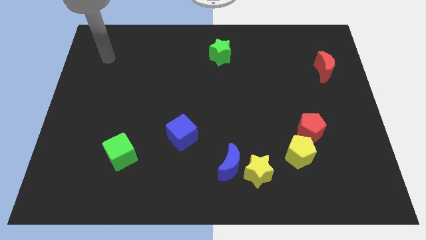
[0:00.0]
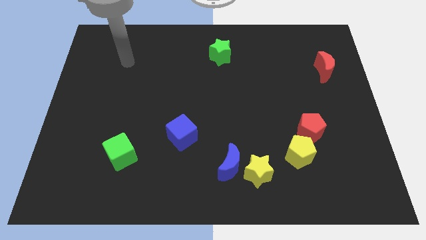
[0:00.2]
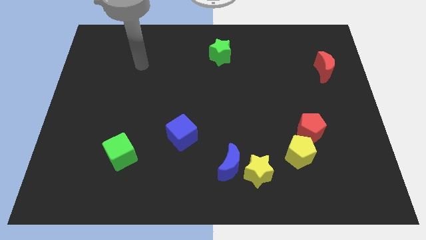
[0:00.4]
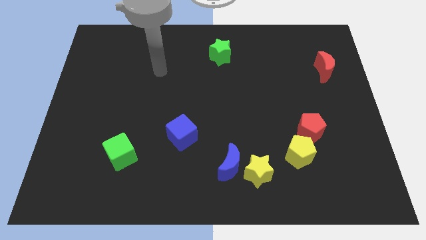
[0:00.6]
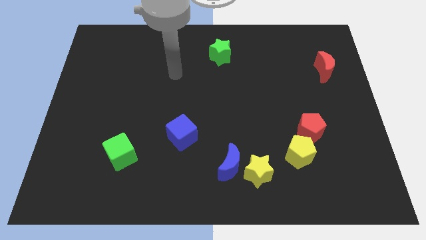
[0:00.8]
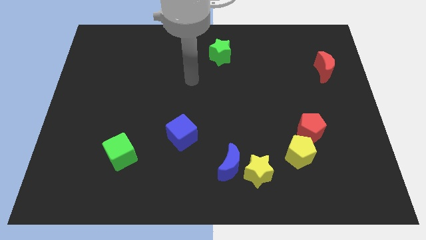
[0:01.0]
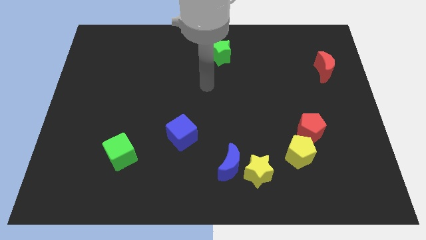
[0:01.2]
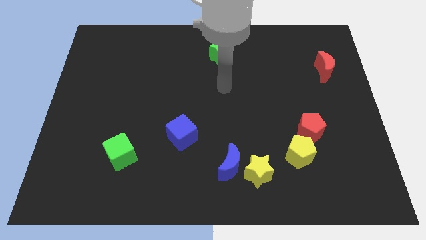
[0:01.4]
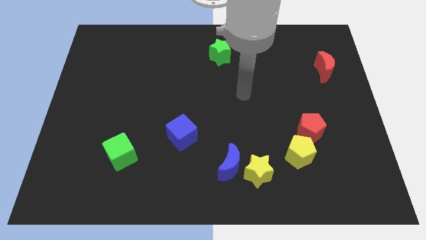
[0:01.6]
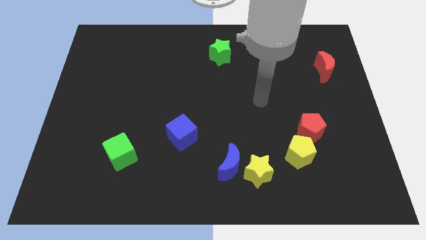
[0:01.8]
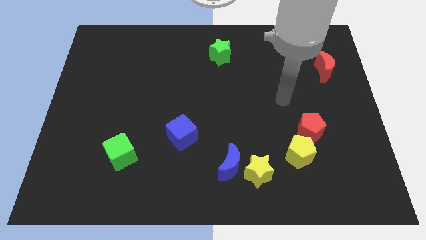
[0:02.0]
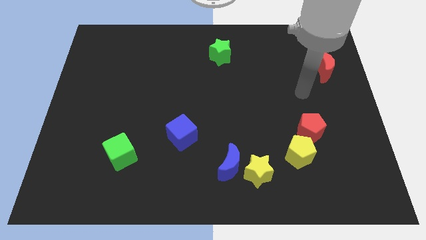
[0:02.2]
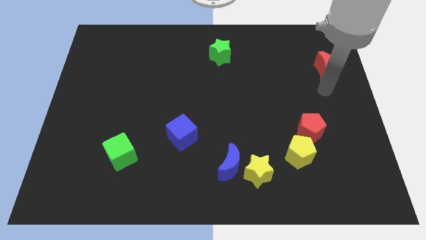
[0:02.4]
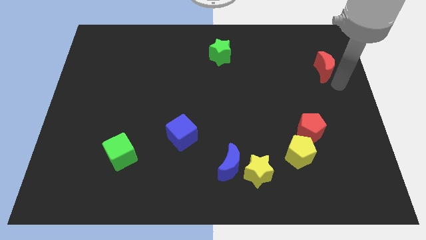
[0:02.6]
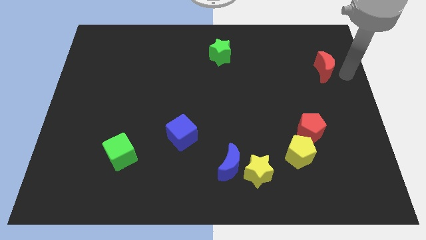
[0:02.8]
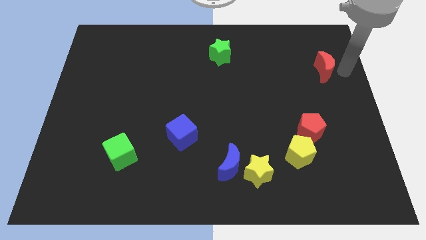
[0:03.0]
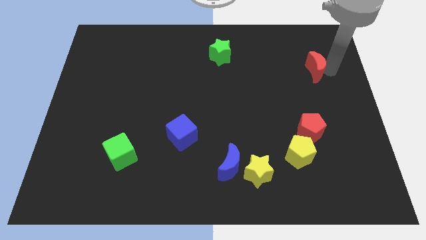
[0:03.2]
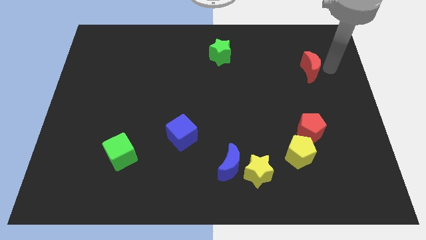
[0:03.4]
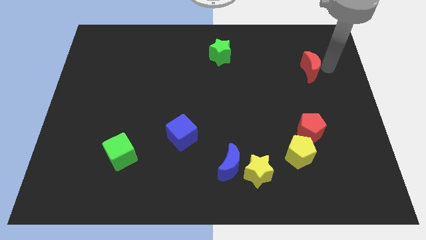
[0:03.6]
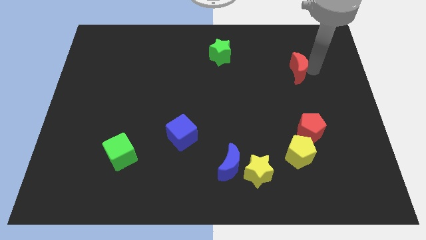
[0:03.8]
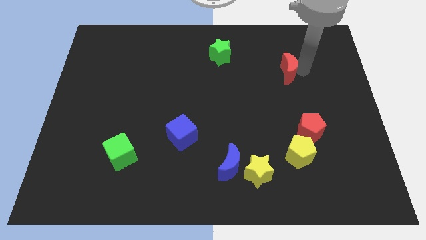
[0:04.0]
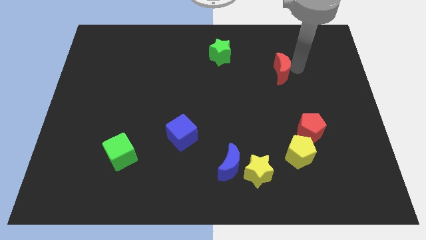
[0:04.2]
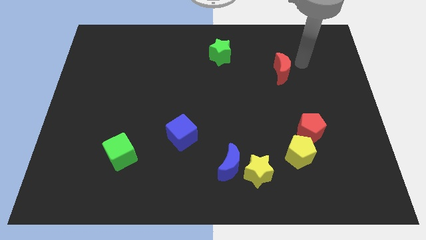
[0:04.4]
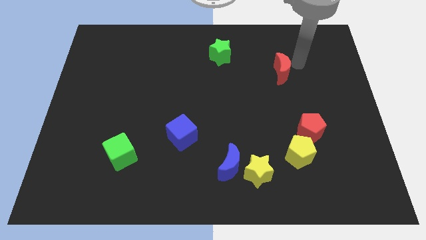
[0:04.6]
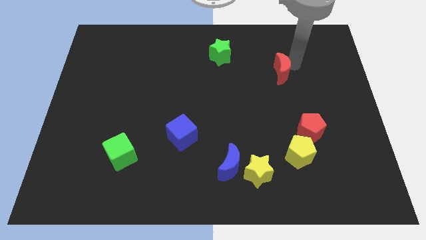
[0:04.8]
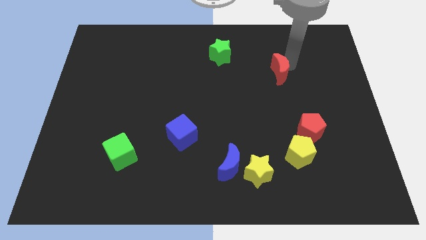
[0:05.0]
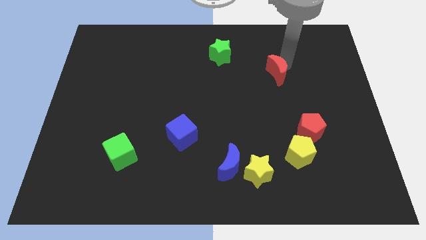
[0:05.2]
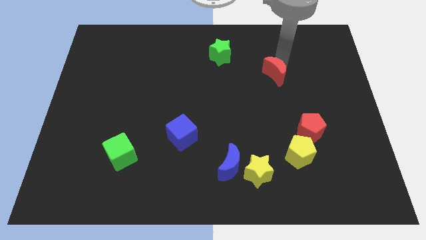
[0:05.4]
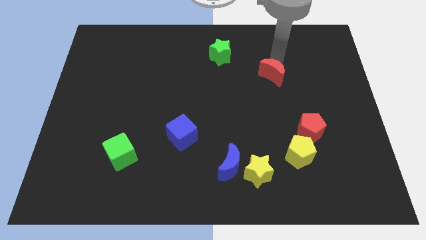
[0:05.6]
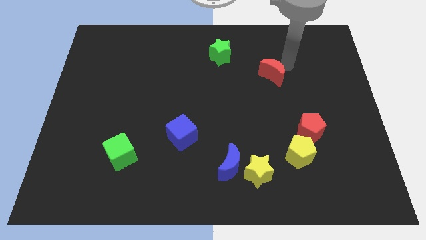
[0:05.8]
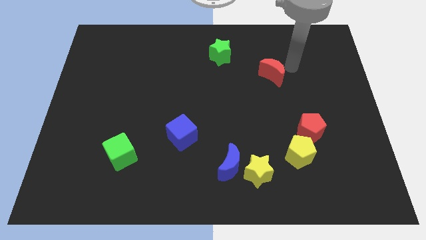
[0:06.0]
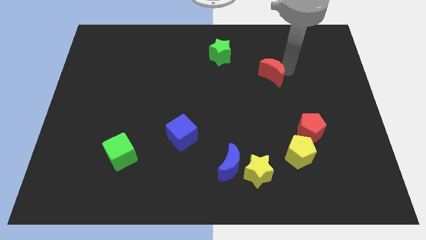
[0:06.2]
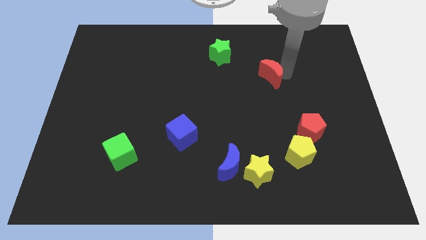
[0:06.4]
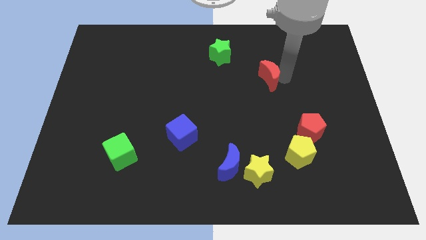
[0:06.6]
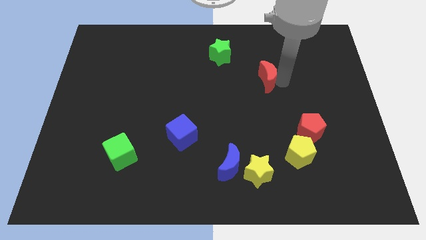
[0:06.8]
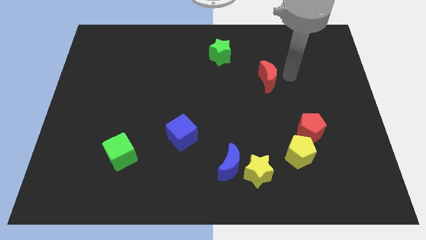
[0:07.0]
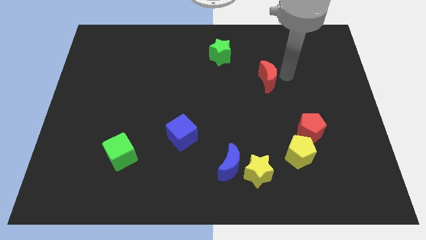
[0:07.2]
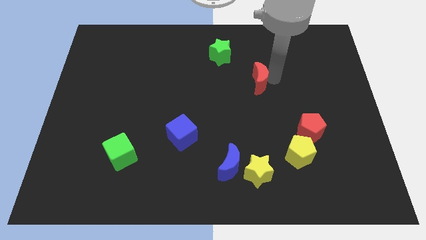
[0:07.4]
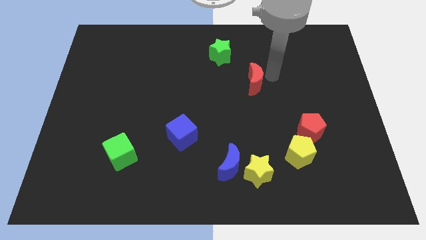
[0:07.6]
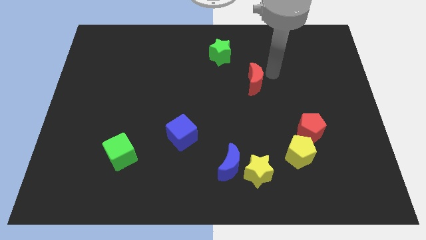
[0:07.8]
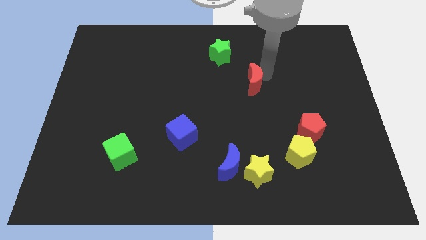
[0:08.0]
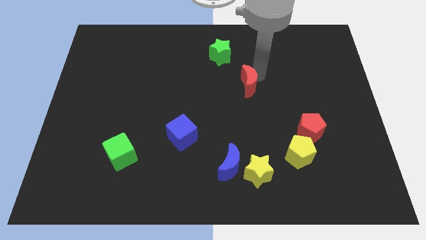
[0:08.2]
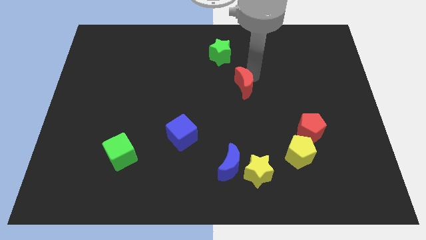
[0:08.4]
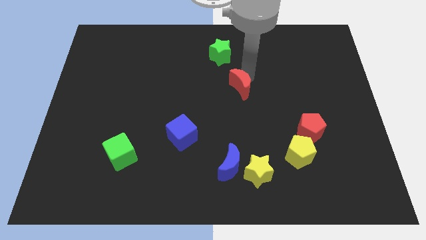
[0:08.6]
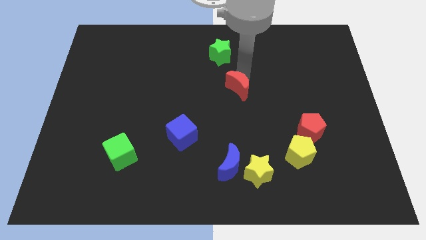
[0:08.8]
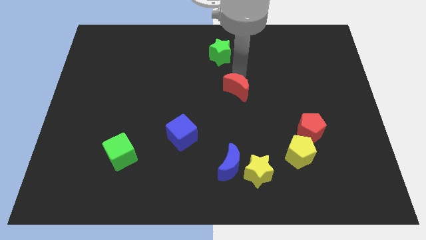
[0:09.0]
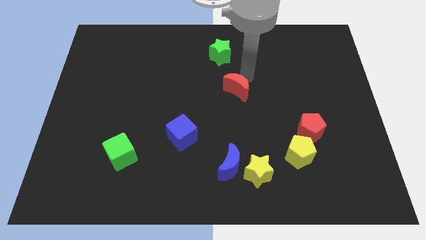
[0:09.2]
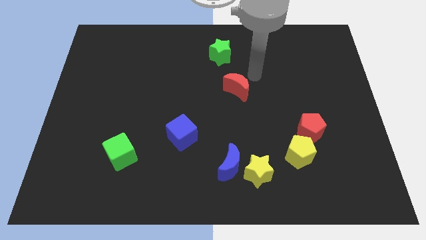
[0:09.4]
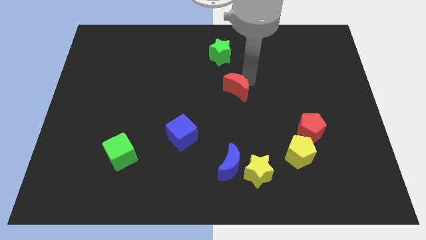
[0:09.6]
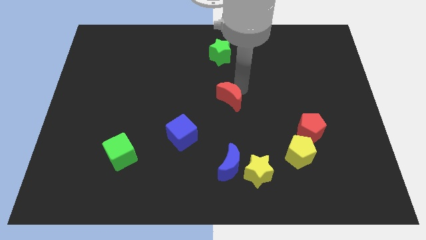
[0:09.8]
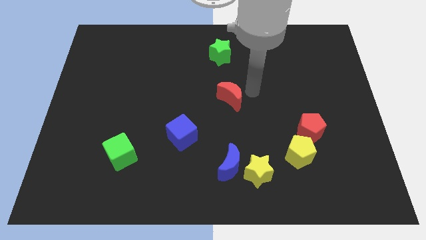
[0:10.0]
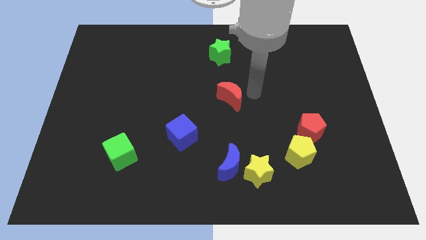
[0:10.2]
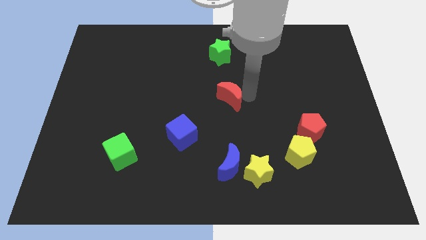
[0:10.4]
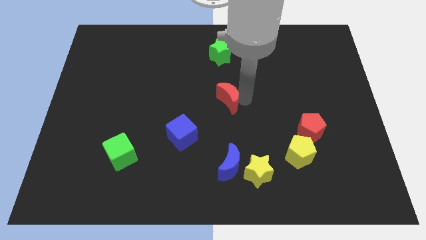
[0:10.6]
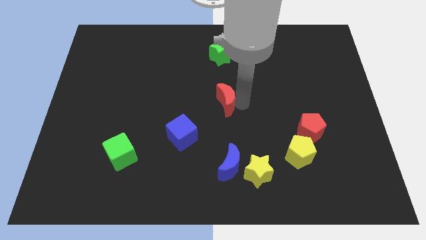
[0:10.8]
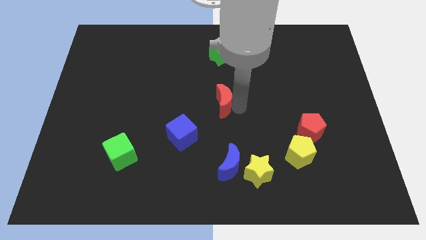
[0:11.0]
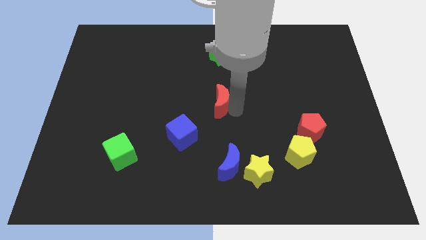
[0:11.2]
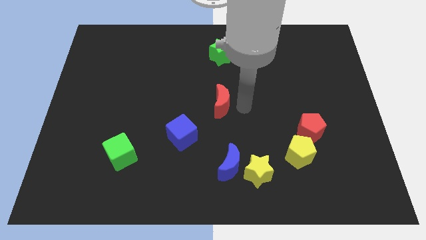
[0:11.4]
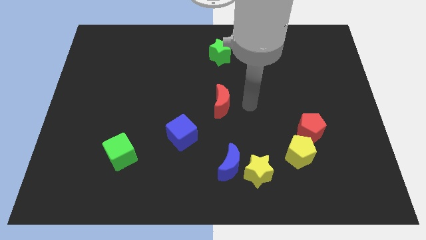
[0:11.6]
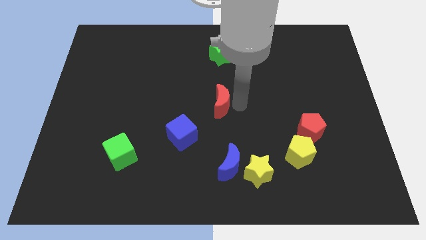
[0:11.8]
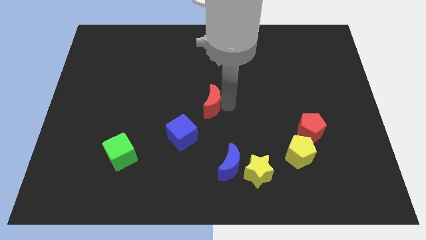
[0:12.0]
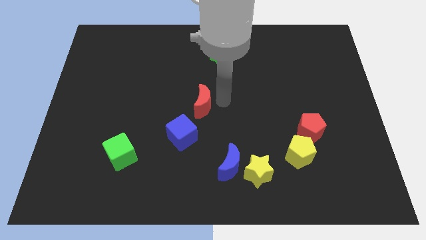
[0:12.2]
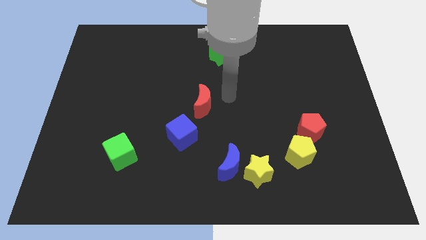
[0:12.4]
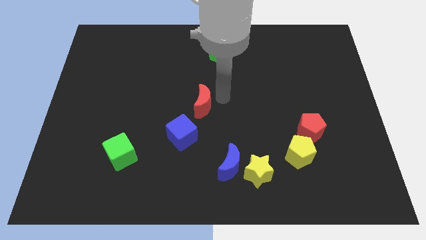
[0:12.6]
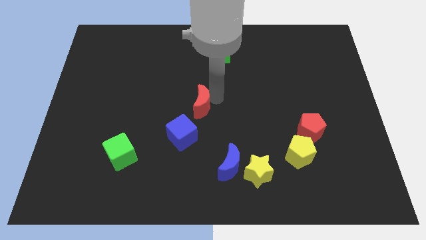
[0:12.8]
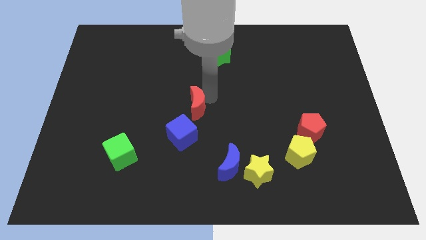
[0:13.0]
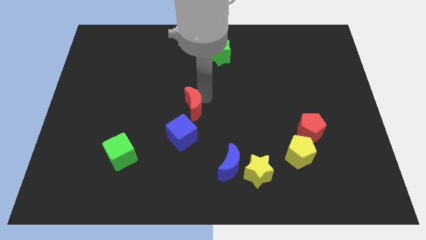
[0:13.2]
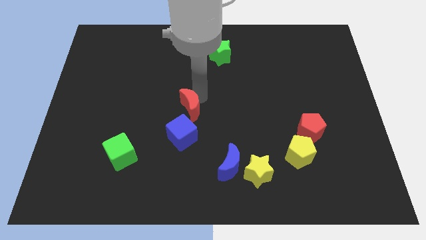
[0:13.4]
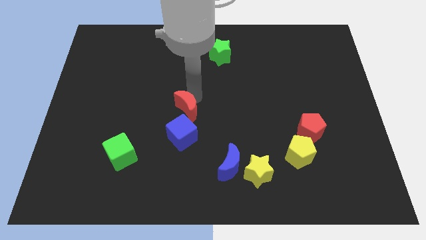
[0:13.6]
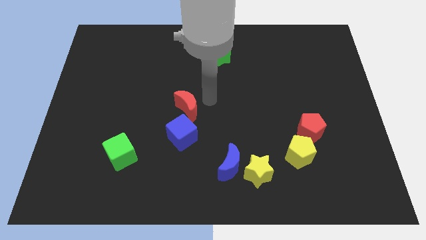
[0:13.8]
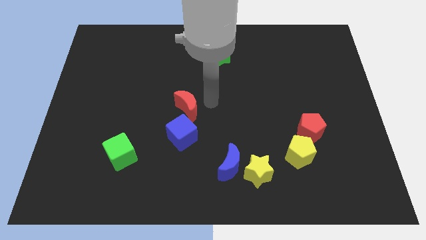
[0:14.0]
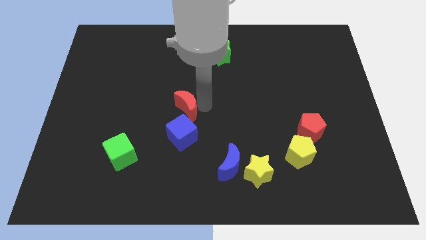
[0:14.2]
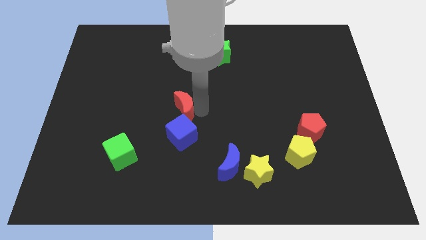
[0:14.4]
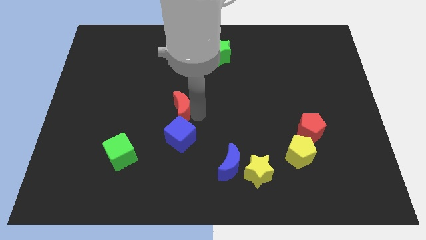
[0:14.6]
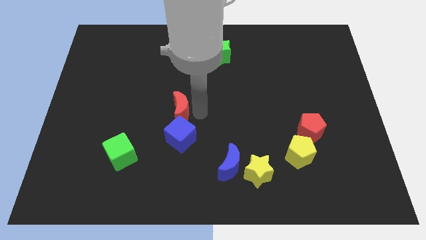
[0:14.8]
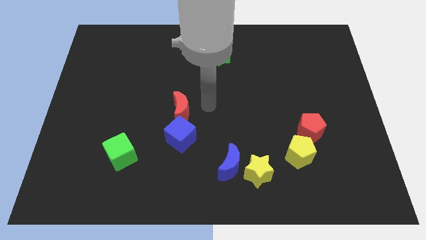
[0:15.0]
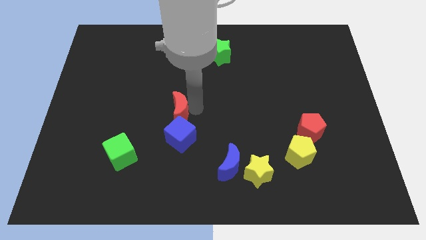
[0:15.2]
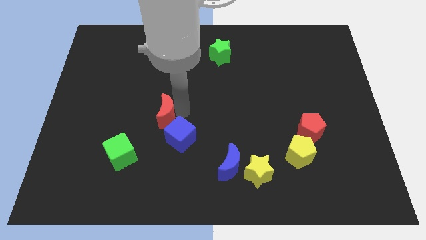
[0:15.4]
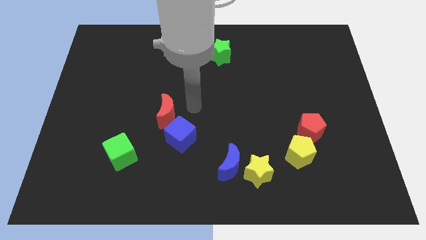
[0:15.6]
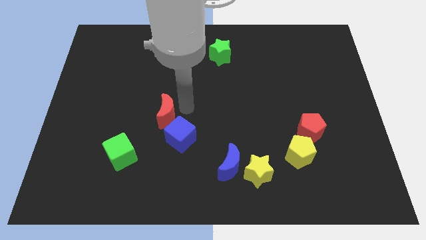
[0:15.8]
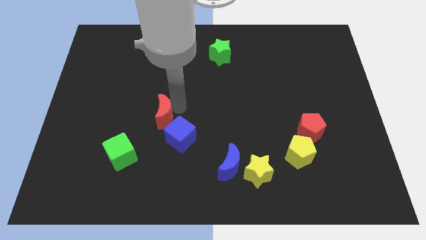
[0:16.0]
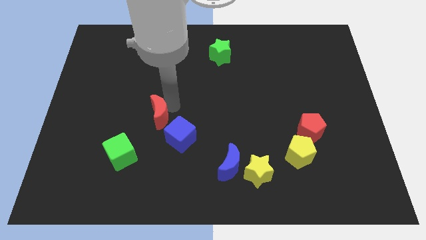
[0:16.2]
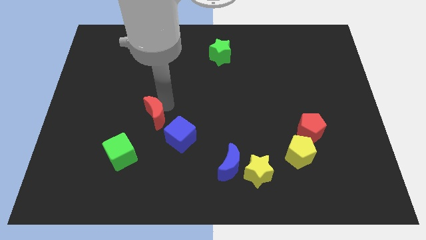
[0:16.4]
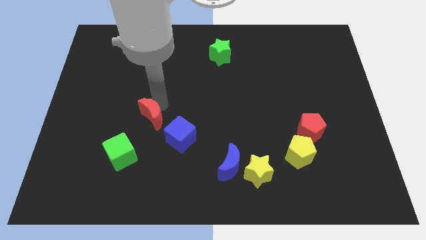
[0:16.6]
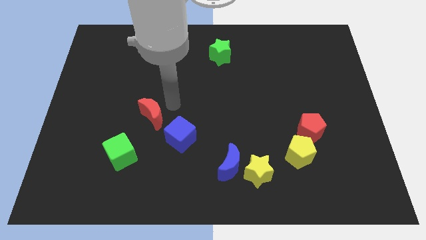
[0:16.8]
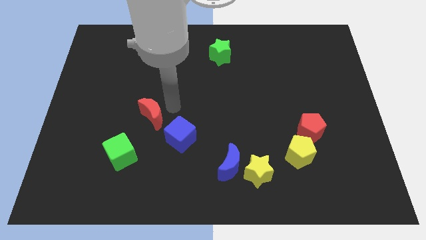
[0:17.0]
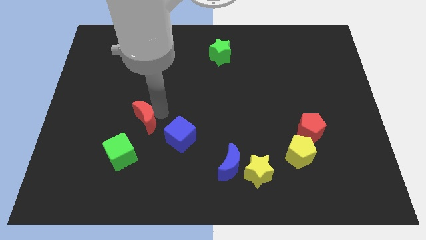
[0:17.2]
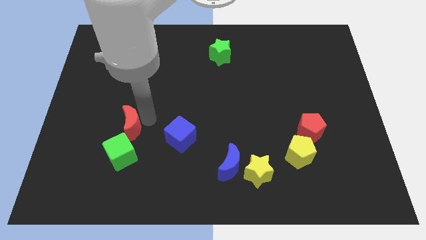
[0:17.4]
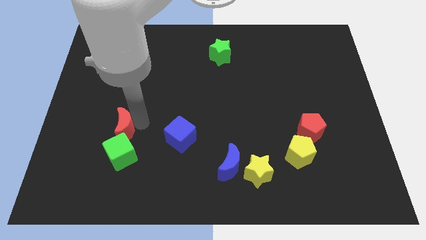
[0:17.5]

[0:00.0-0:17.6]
put the red moon to the top left of the green cube
